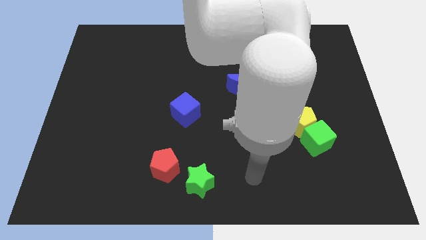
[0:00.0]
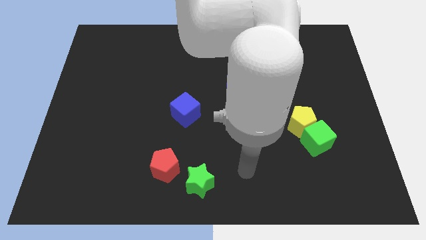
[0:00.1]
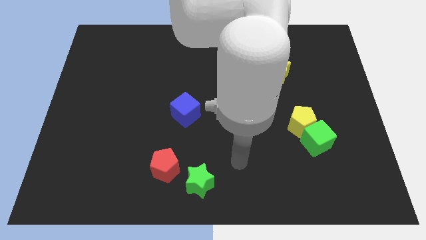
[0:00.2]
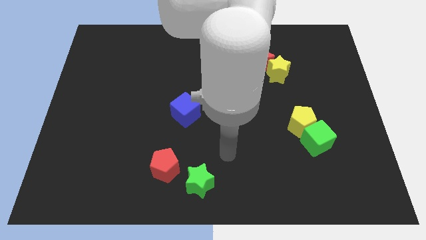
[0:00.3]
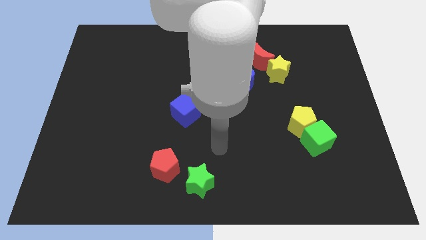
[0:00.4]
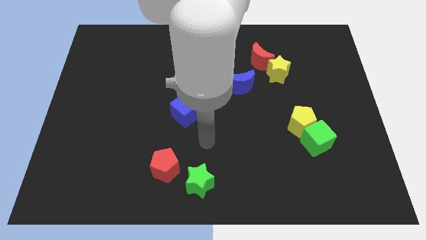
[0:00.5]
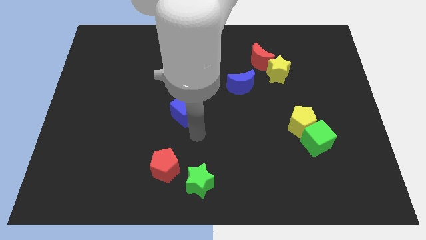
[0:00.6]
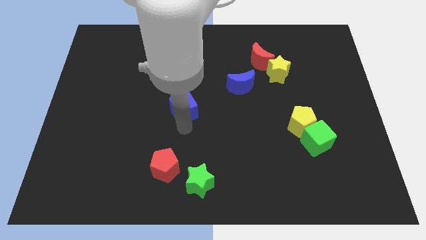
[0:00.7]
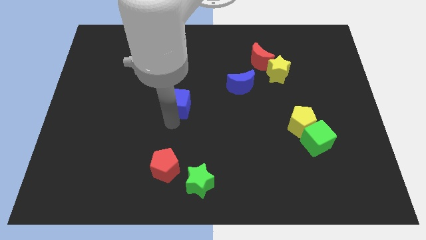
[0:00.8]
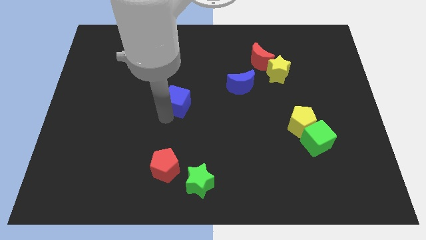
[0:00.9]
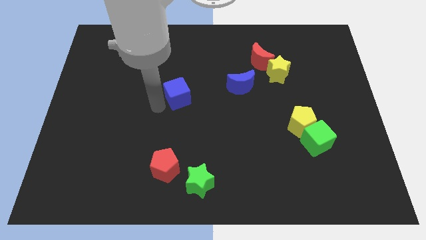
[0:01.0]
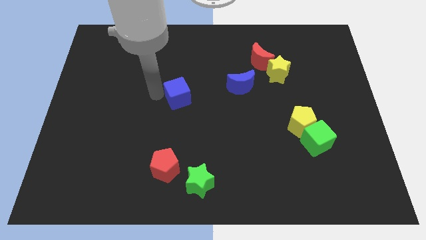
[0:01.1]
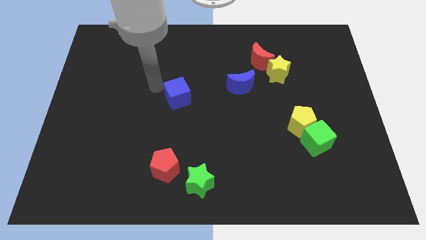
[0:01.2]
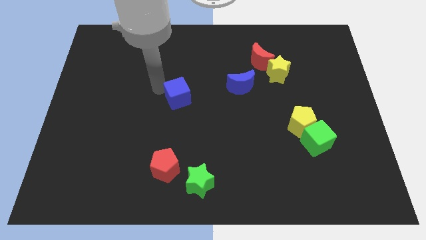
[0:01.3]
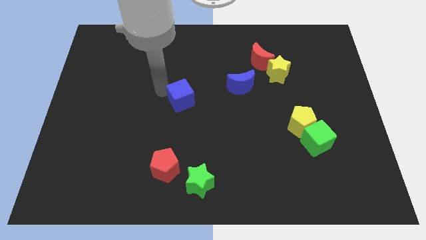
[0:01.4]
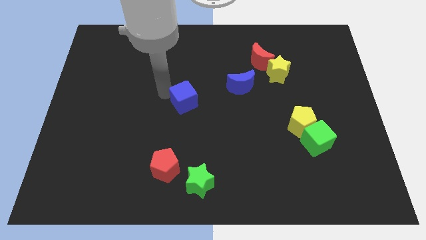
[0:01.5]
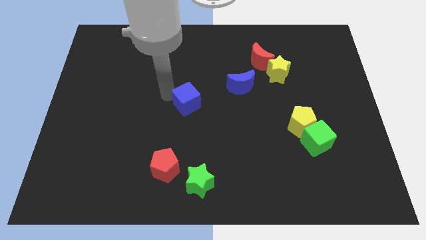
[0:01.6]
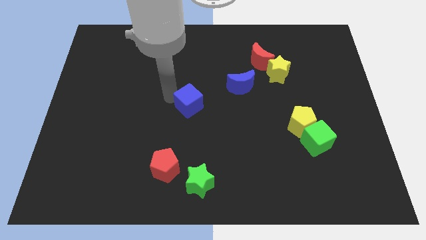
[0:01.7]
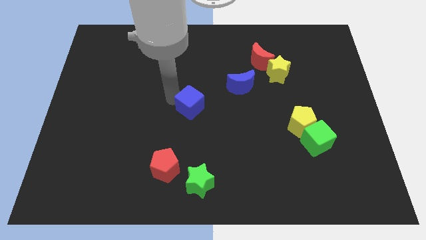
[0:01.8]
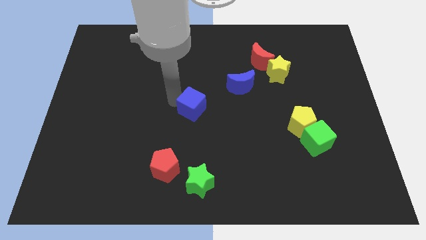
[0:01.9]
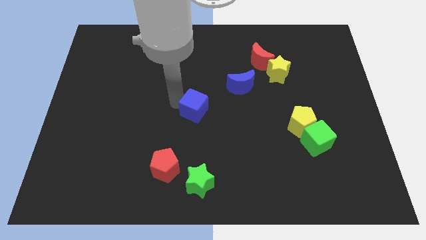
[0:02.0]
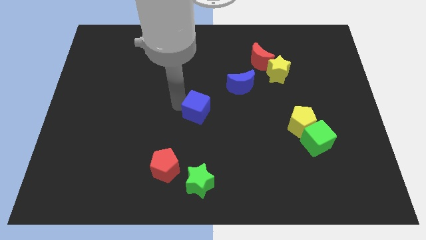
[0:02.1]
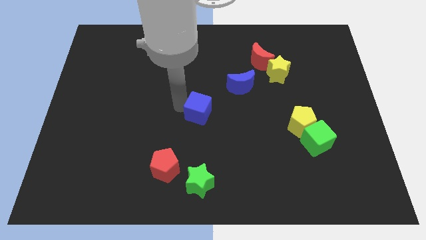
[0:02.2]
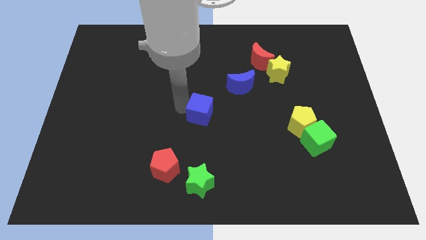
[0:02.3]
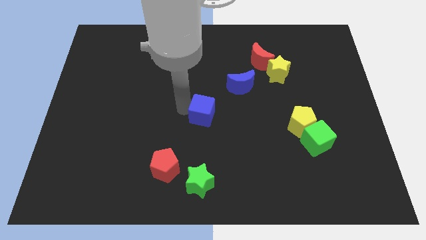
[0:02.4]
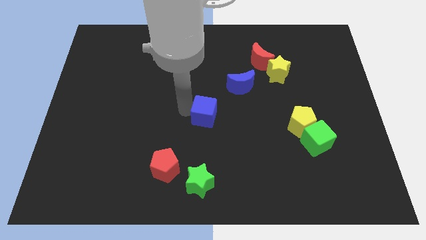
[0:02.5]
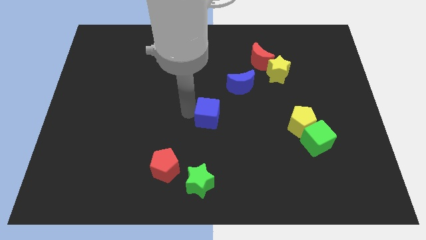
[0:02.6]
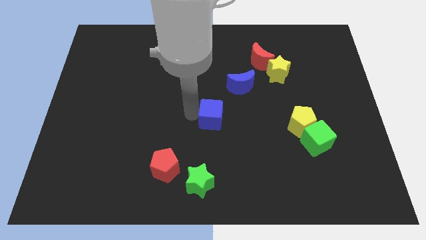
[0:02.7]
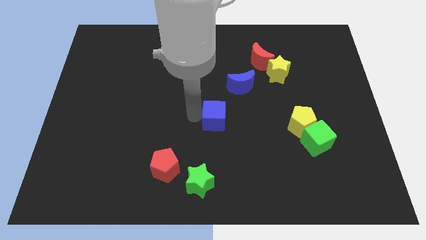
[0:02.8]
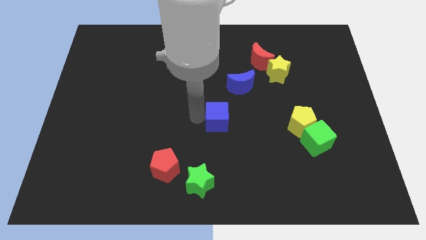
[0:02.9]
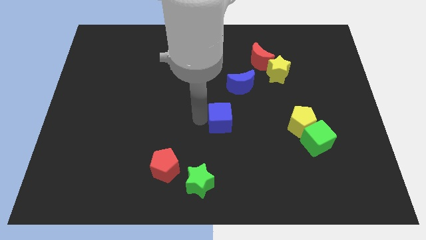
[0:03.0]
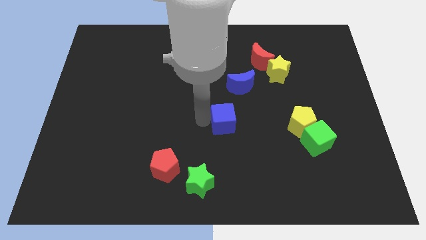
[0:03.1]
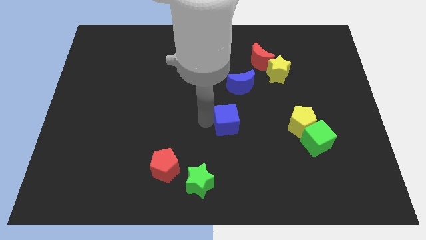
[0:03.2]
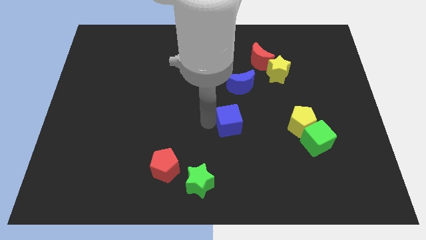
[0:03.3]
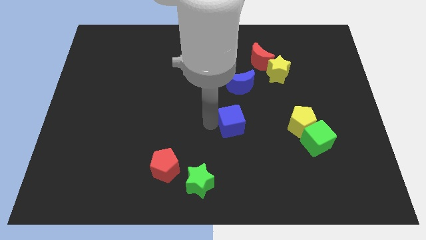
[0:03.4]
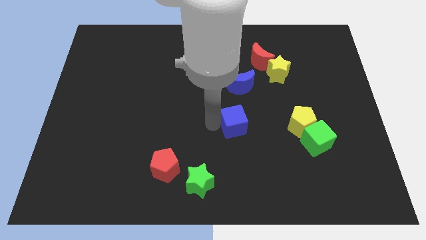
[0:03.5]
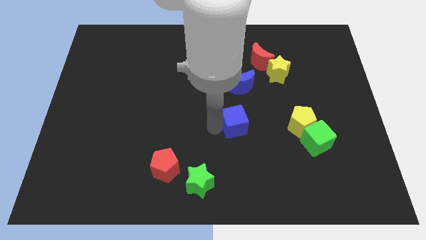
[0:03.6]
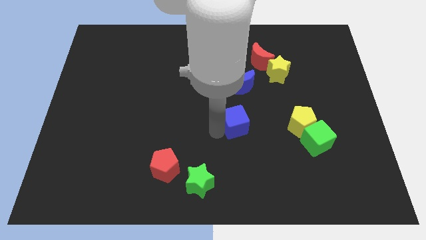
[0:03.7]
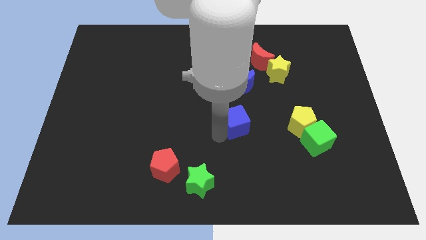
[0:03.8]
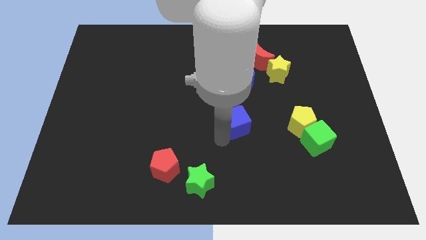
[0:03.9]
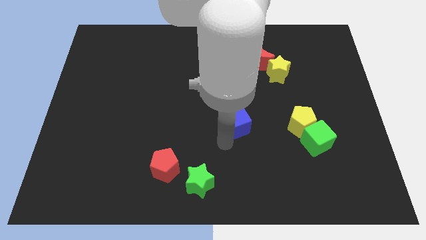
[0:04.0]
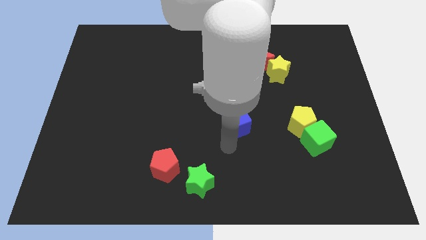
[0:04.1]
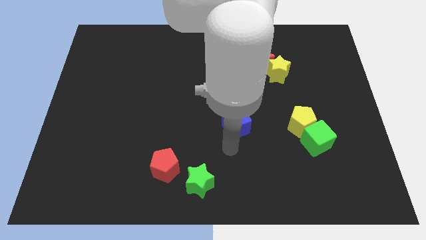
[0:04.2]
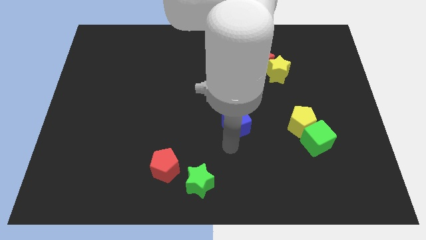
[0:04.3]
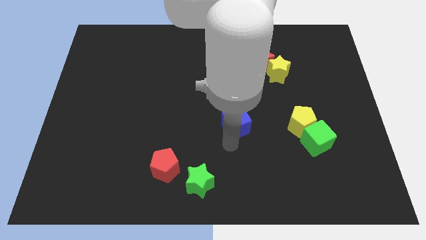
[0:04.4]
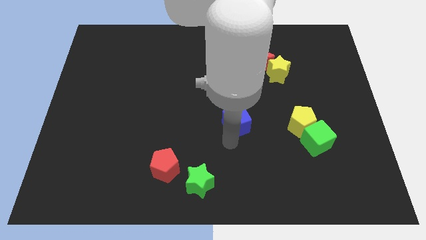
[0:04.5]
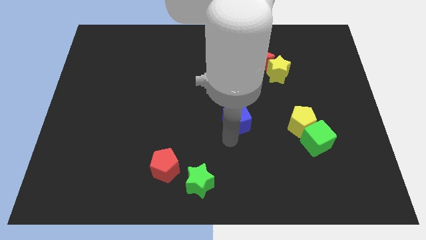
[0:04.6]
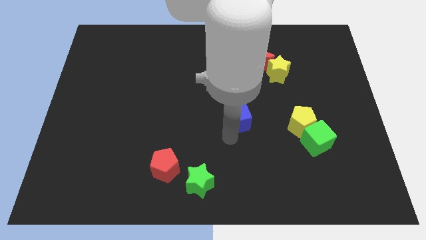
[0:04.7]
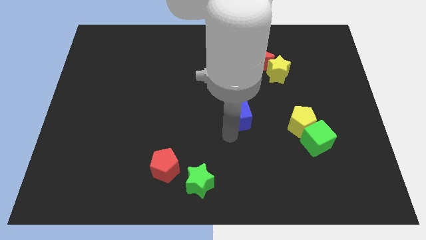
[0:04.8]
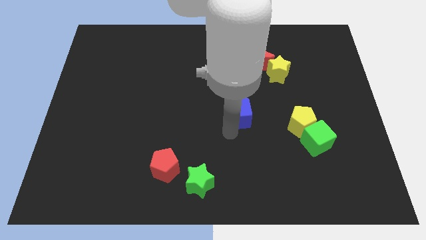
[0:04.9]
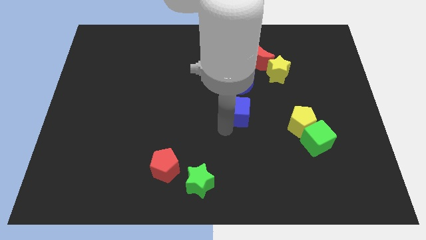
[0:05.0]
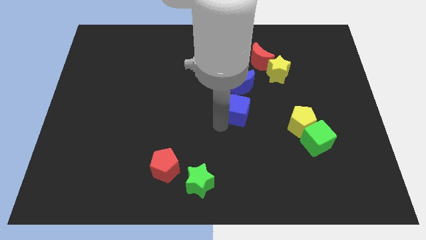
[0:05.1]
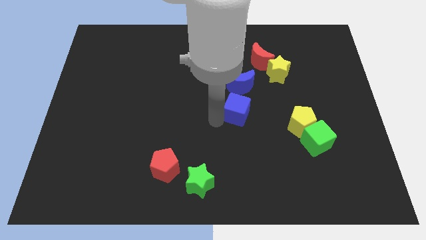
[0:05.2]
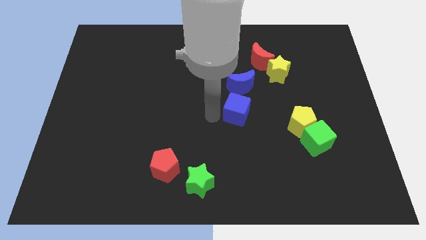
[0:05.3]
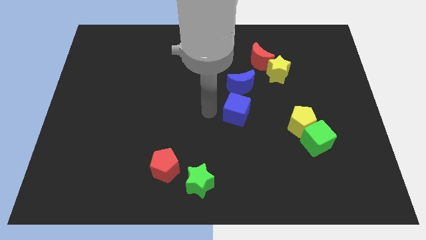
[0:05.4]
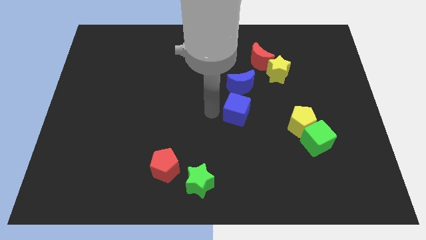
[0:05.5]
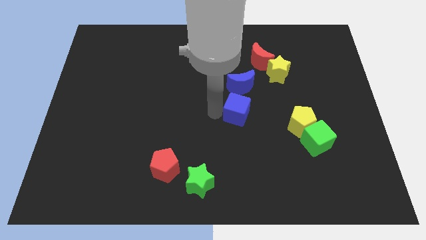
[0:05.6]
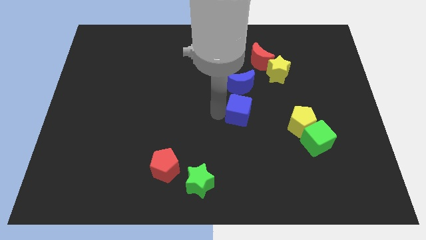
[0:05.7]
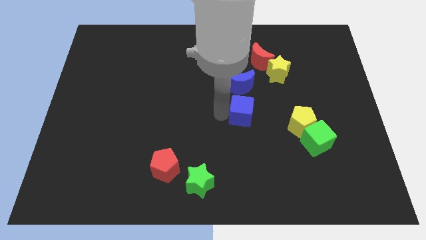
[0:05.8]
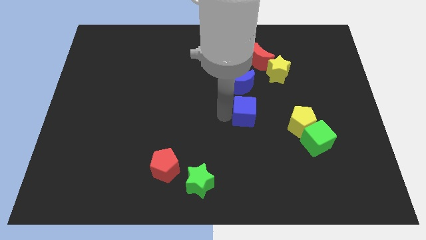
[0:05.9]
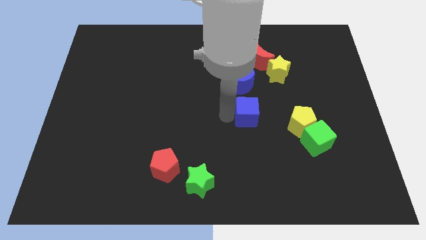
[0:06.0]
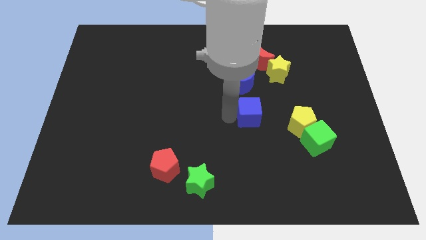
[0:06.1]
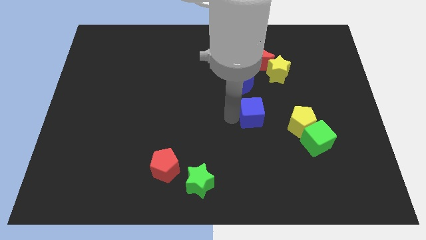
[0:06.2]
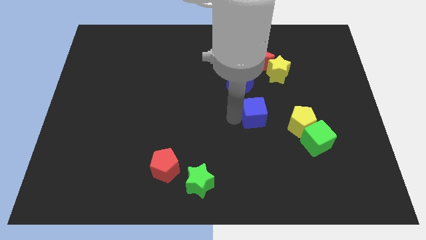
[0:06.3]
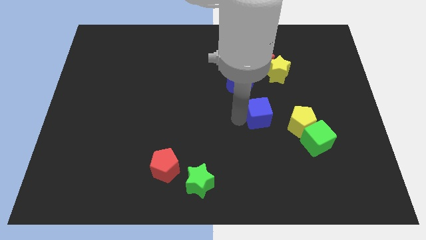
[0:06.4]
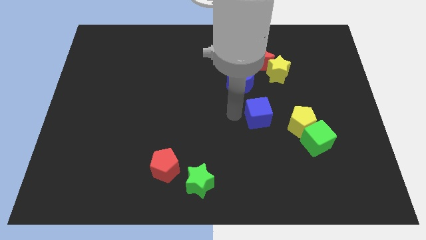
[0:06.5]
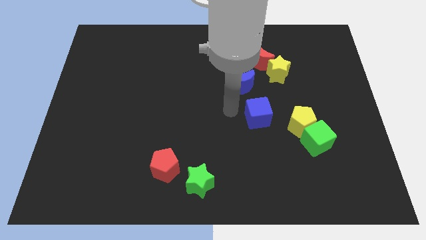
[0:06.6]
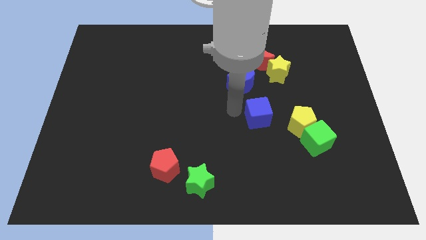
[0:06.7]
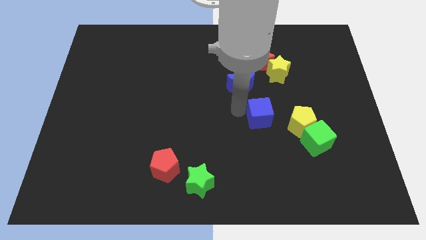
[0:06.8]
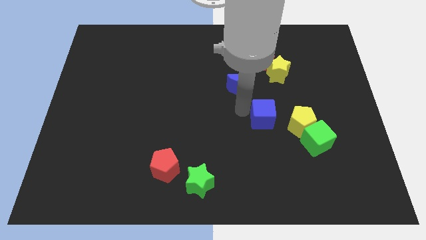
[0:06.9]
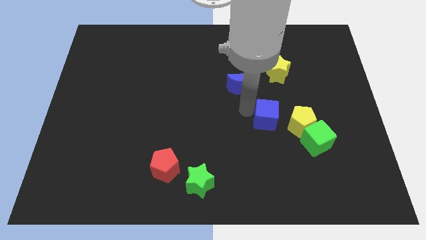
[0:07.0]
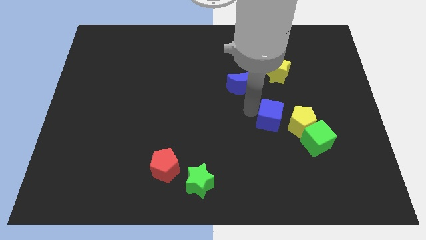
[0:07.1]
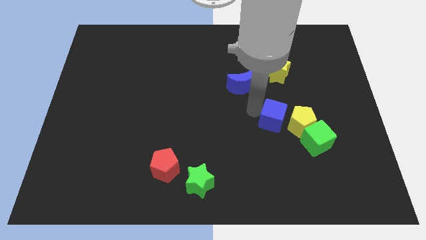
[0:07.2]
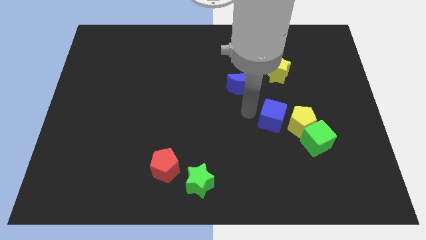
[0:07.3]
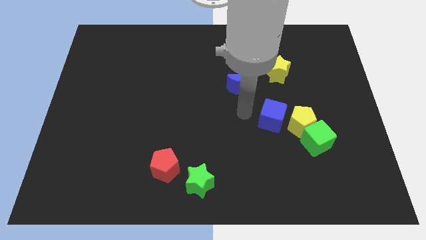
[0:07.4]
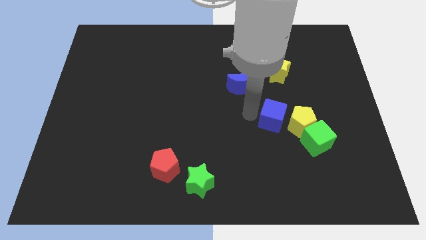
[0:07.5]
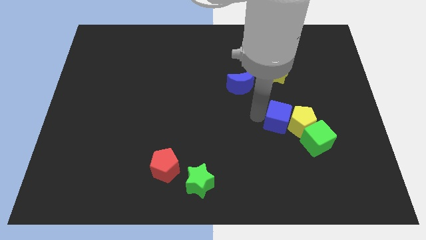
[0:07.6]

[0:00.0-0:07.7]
move the blue cube towards the yellow pentagon
